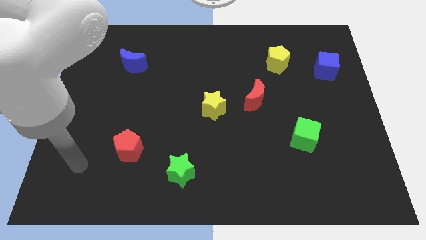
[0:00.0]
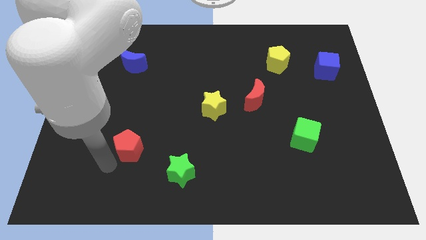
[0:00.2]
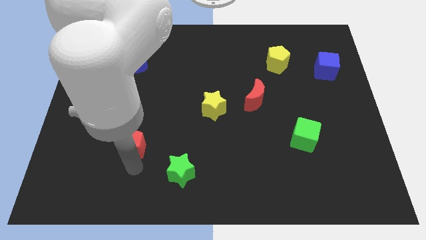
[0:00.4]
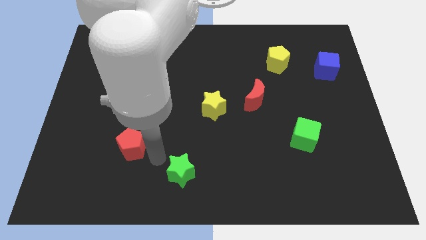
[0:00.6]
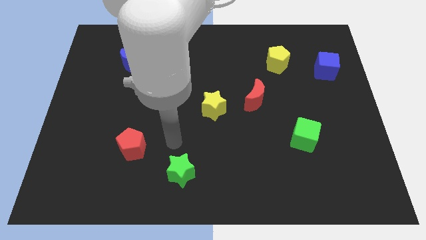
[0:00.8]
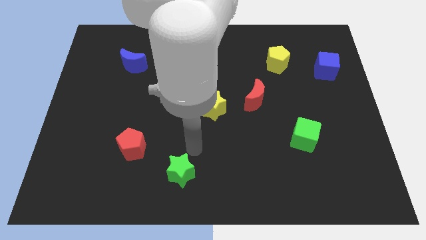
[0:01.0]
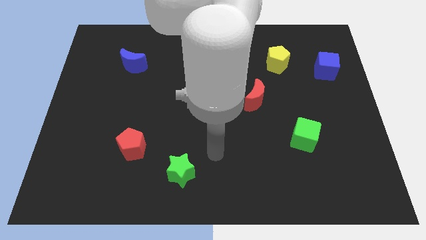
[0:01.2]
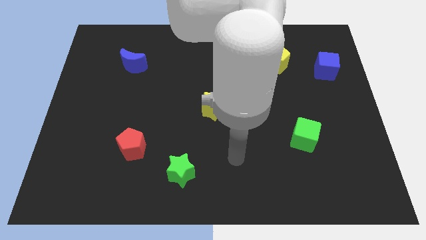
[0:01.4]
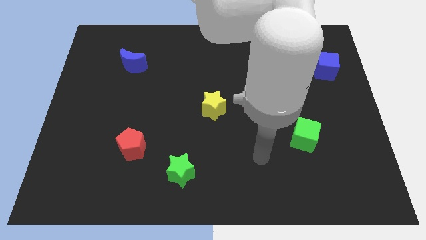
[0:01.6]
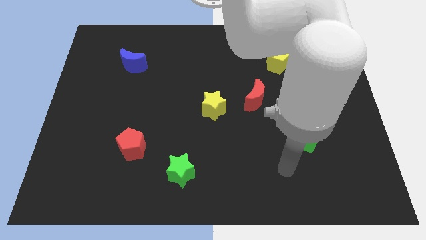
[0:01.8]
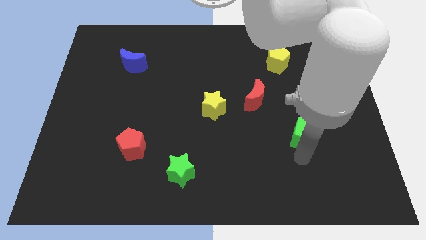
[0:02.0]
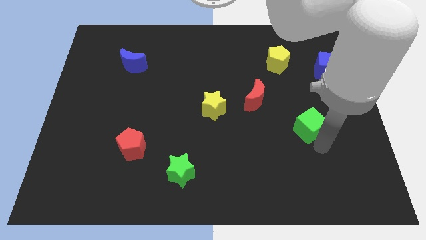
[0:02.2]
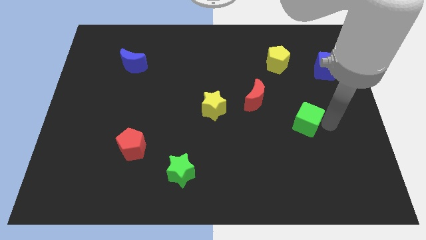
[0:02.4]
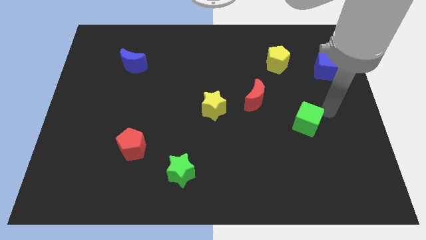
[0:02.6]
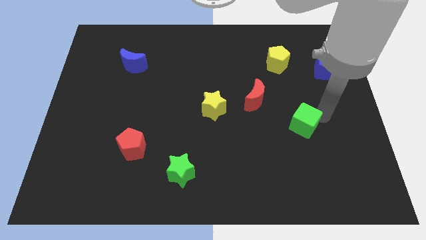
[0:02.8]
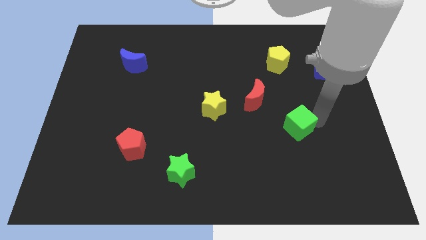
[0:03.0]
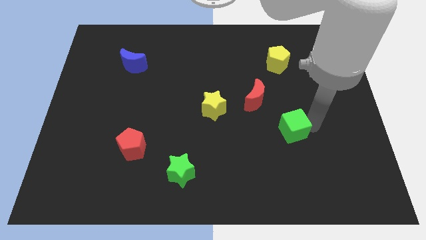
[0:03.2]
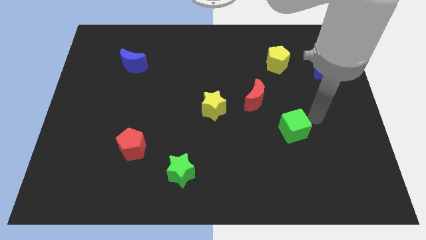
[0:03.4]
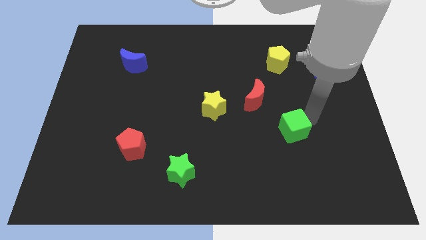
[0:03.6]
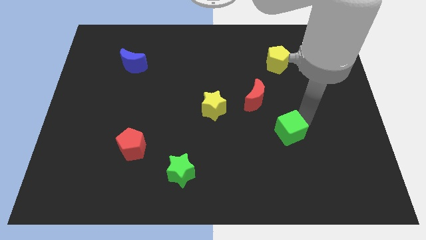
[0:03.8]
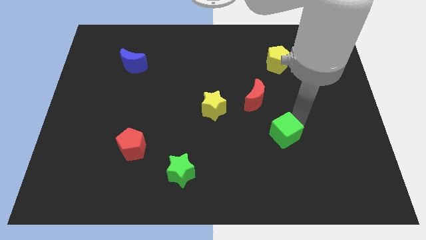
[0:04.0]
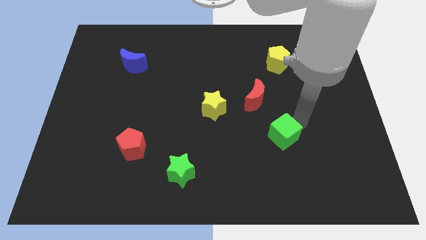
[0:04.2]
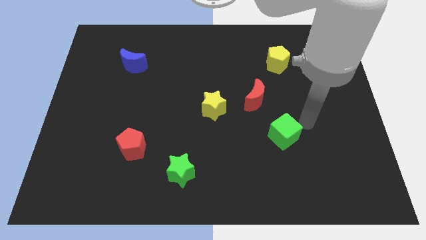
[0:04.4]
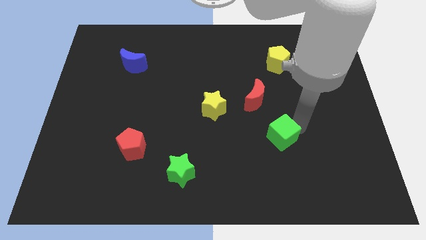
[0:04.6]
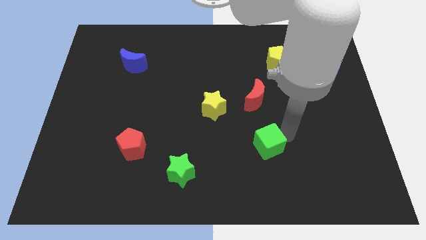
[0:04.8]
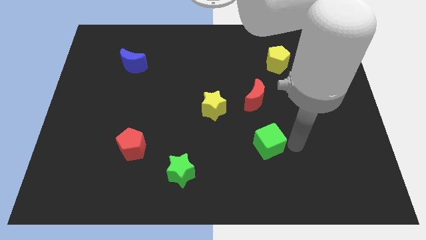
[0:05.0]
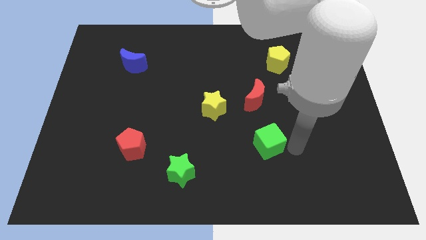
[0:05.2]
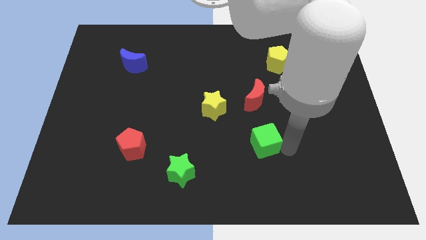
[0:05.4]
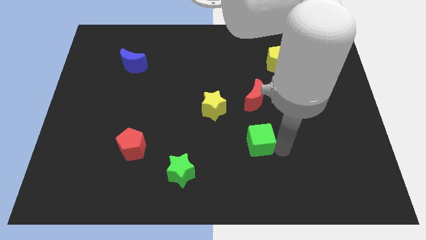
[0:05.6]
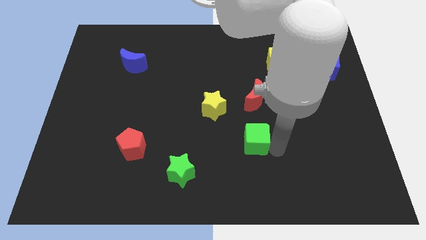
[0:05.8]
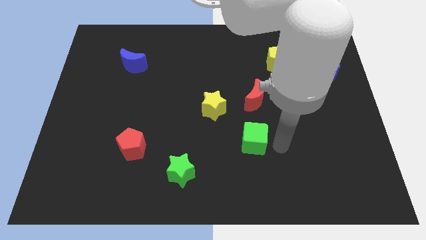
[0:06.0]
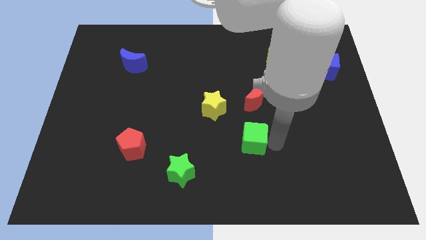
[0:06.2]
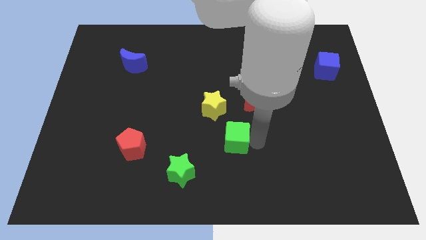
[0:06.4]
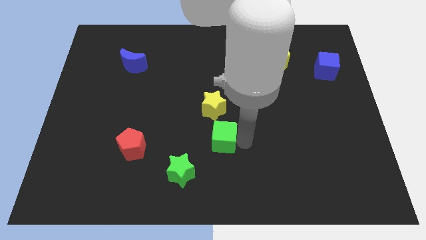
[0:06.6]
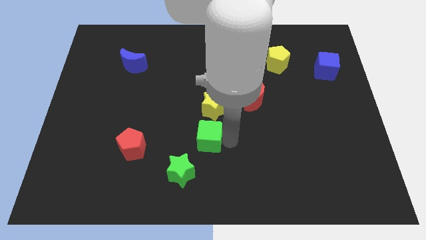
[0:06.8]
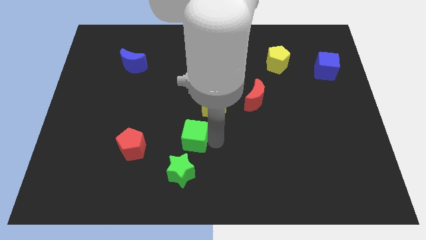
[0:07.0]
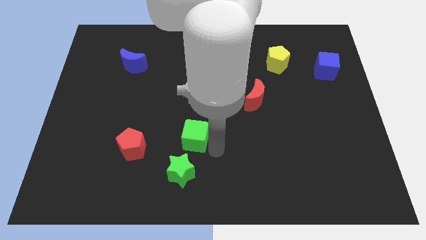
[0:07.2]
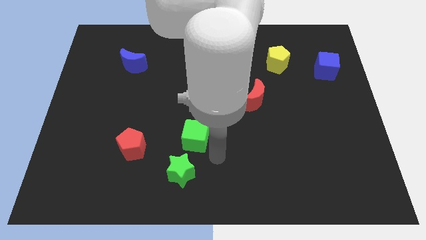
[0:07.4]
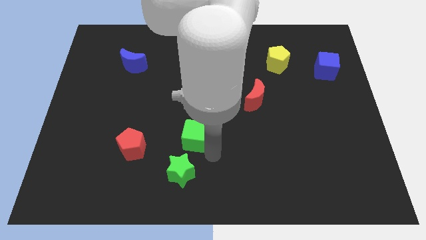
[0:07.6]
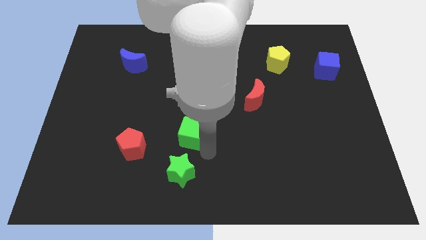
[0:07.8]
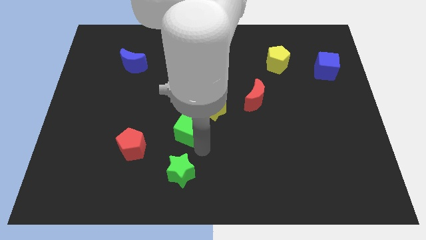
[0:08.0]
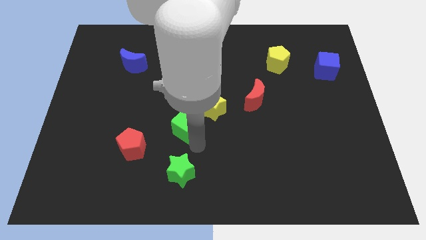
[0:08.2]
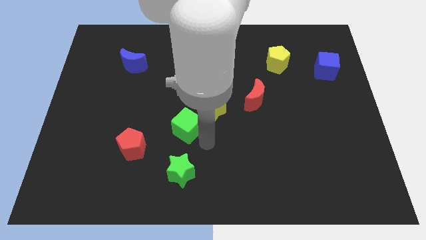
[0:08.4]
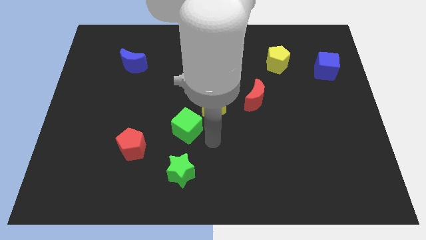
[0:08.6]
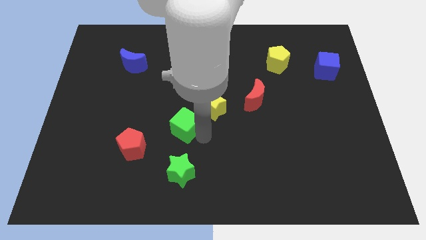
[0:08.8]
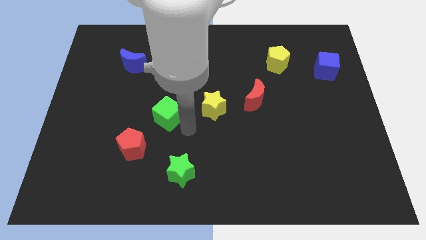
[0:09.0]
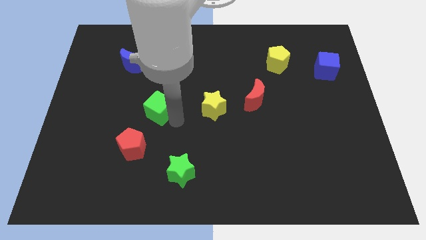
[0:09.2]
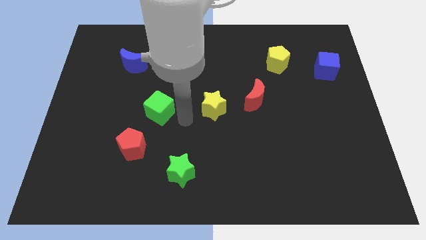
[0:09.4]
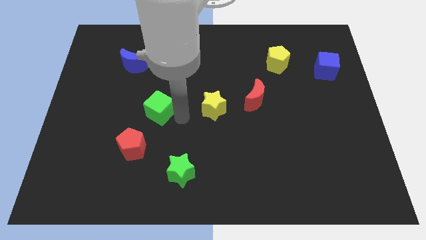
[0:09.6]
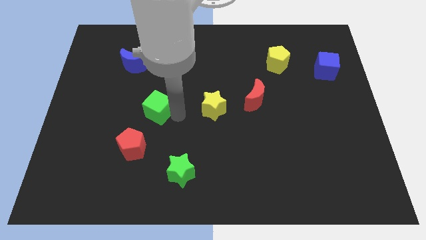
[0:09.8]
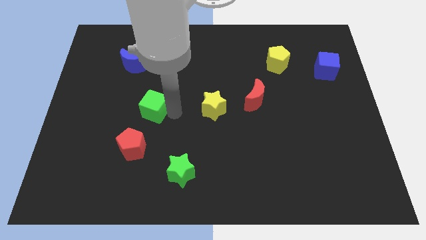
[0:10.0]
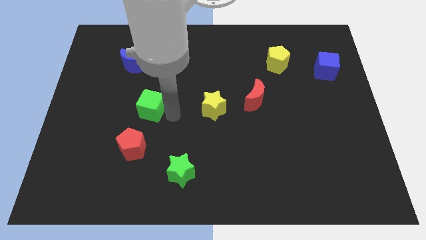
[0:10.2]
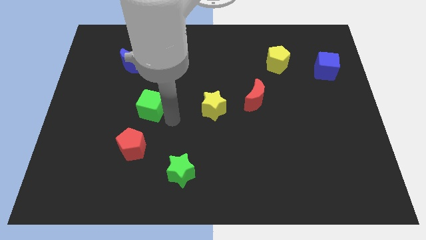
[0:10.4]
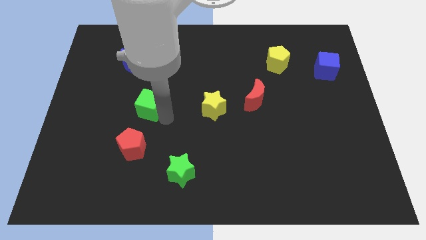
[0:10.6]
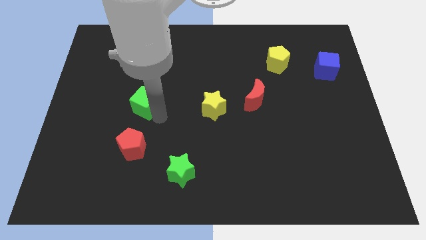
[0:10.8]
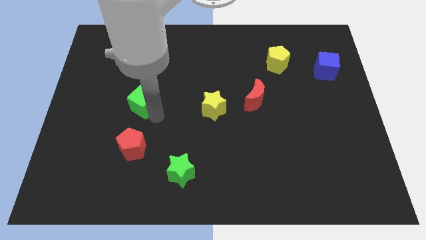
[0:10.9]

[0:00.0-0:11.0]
move the green cube to the bottom of the blue moon

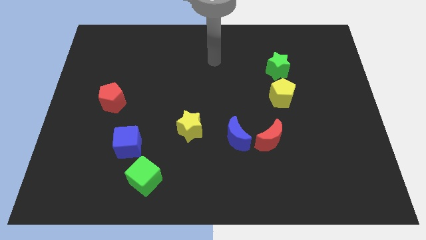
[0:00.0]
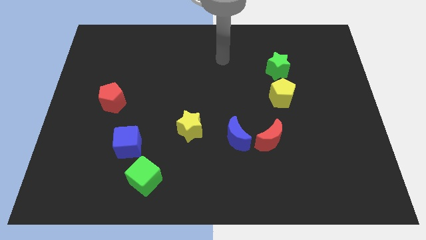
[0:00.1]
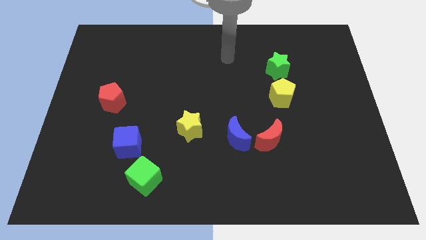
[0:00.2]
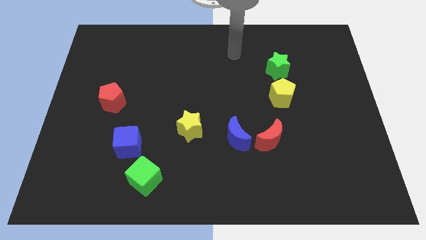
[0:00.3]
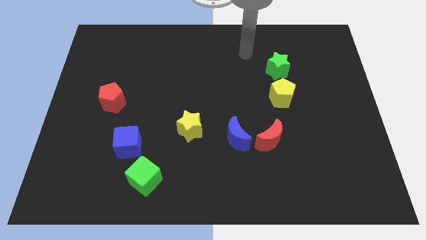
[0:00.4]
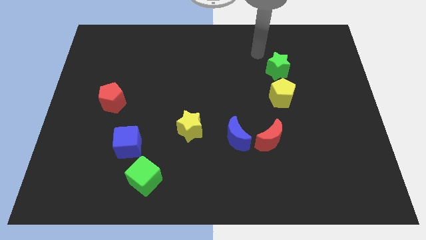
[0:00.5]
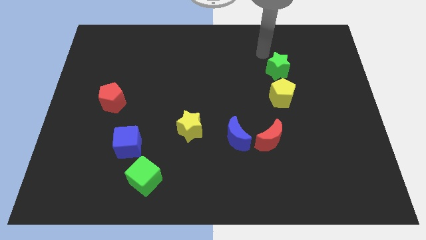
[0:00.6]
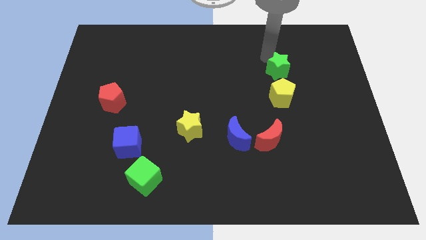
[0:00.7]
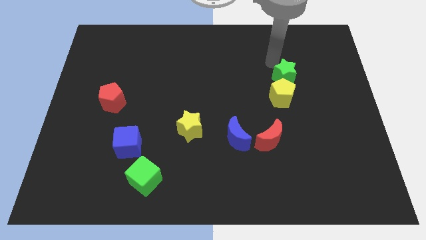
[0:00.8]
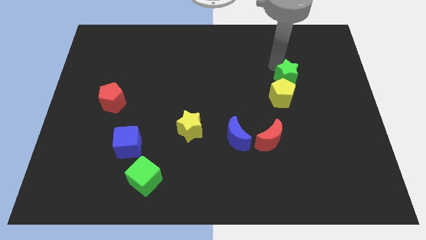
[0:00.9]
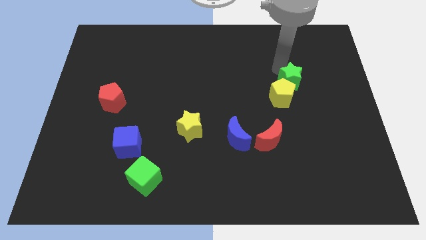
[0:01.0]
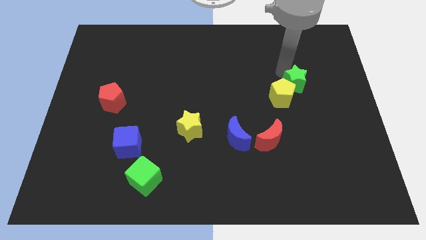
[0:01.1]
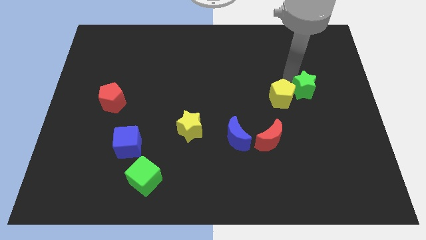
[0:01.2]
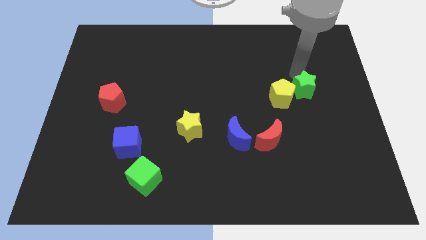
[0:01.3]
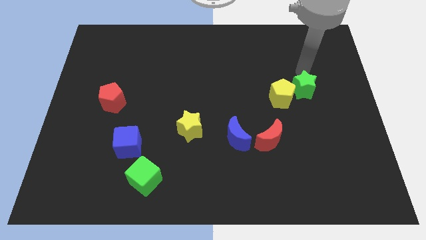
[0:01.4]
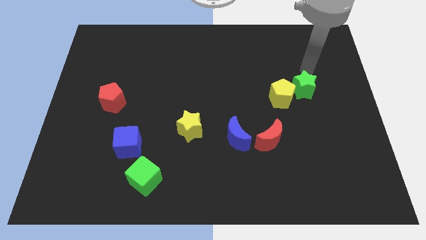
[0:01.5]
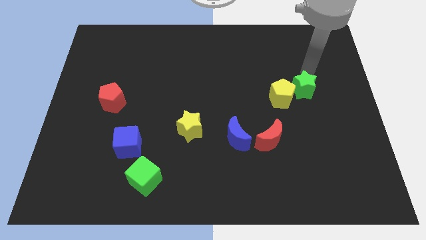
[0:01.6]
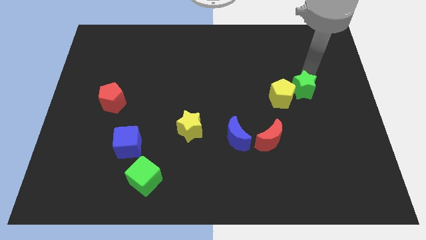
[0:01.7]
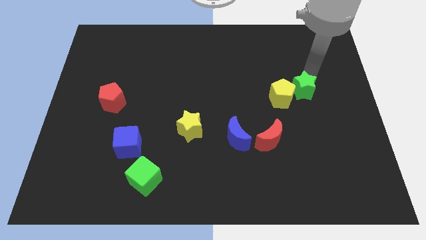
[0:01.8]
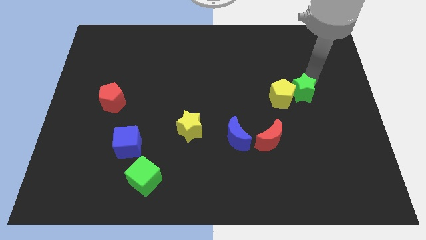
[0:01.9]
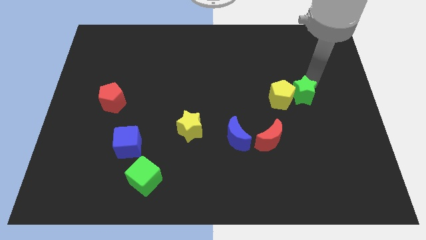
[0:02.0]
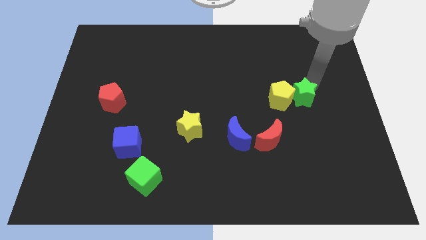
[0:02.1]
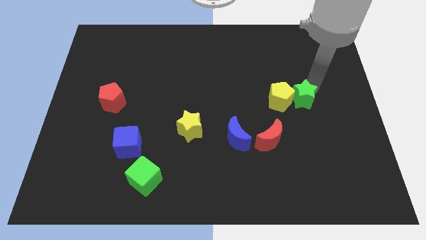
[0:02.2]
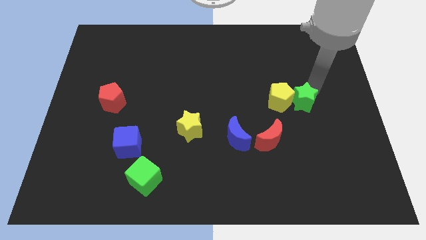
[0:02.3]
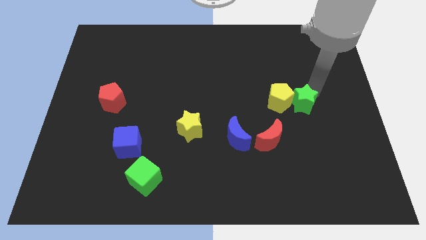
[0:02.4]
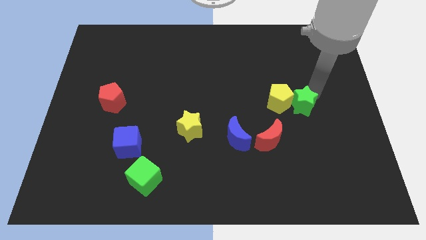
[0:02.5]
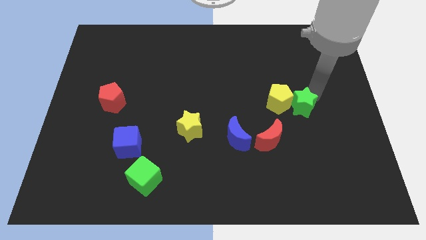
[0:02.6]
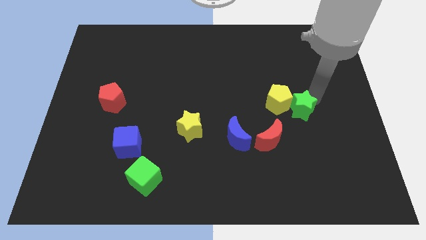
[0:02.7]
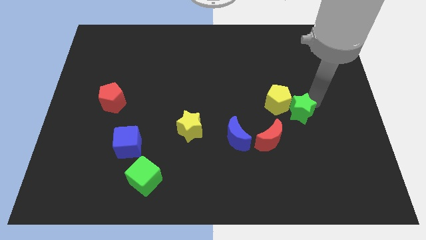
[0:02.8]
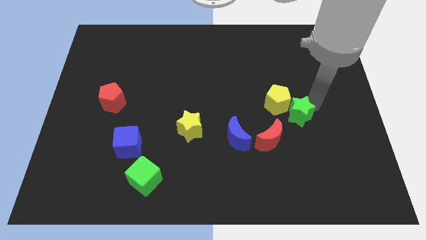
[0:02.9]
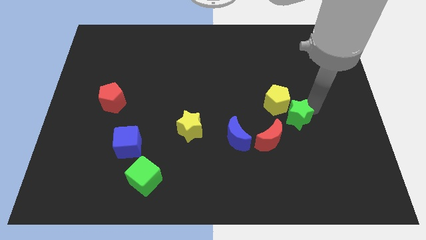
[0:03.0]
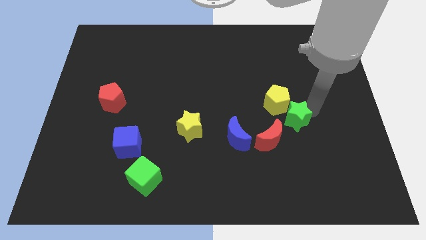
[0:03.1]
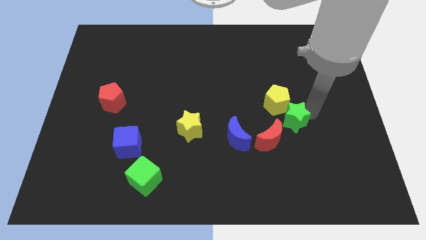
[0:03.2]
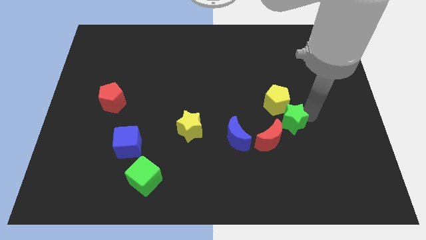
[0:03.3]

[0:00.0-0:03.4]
slide the green star to the right side of the blue moon
